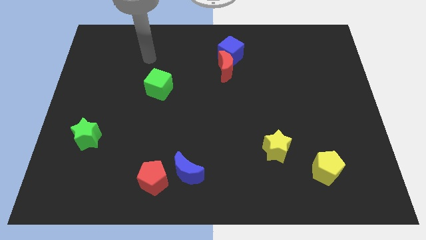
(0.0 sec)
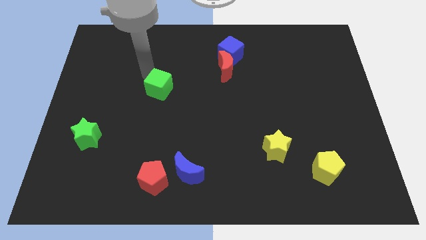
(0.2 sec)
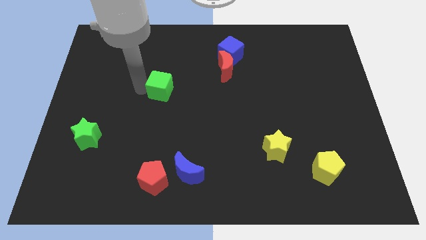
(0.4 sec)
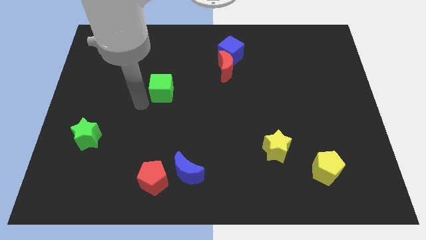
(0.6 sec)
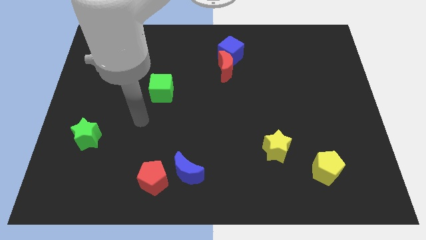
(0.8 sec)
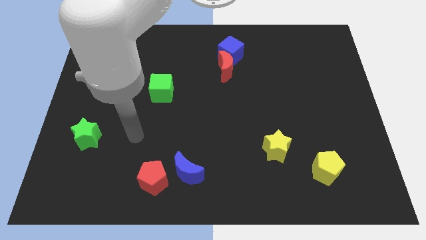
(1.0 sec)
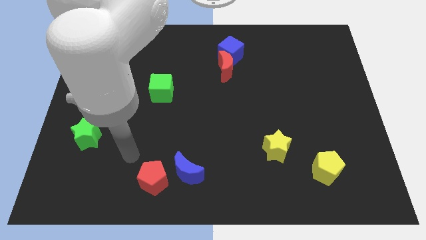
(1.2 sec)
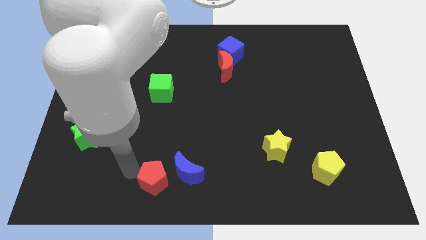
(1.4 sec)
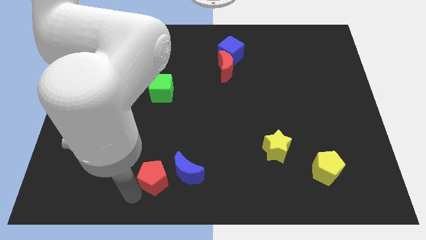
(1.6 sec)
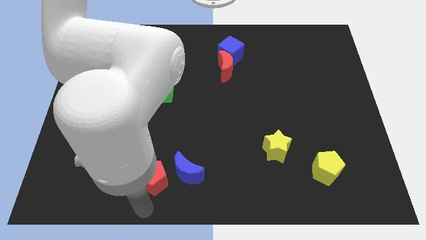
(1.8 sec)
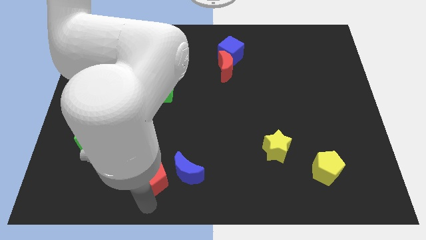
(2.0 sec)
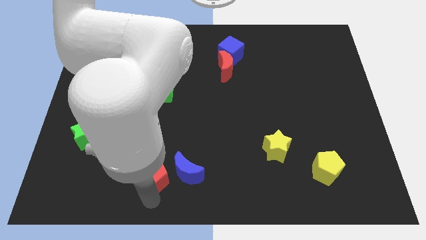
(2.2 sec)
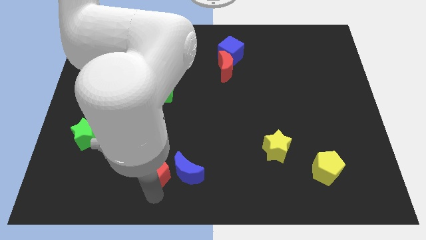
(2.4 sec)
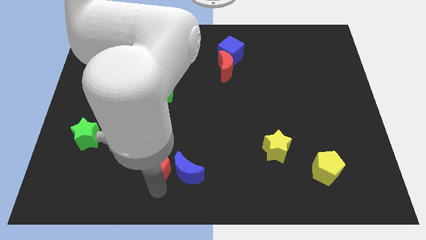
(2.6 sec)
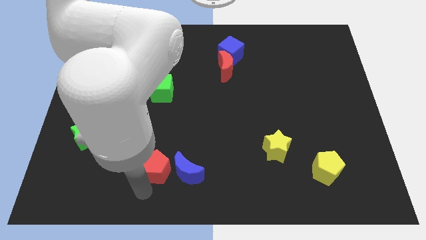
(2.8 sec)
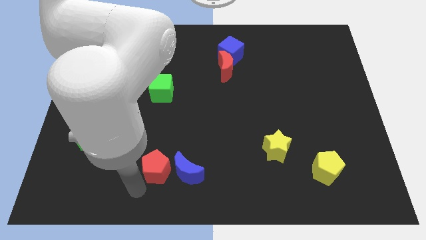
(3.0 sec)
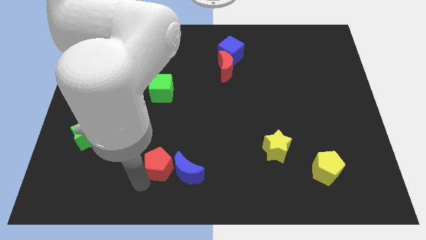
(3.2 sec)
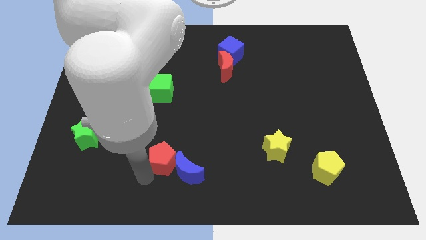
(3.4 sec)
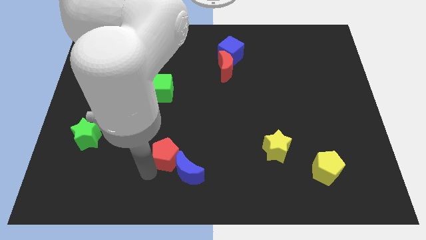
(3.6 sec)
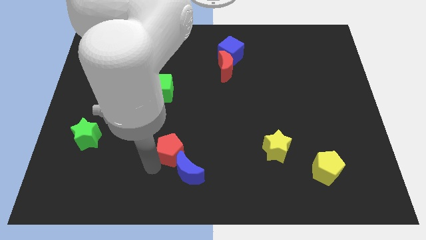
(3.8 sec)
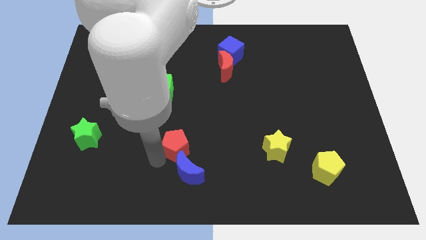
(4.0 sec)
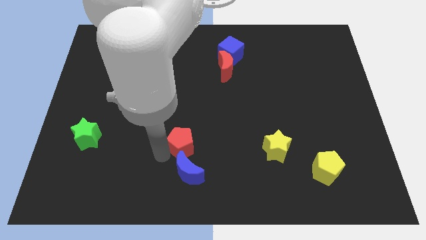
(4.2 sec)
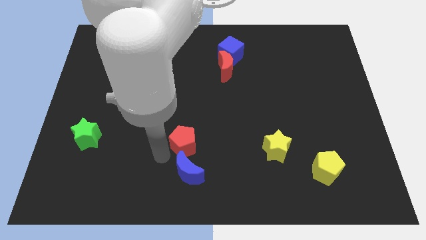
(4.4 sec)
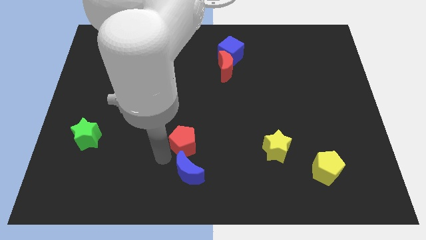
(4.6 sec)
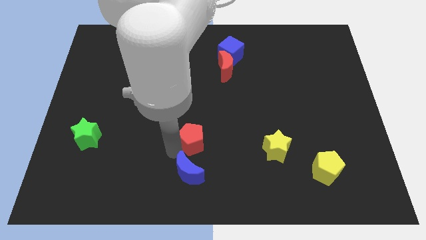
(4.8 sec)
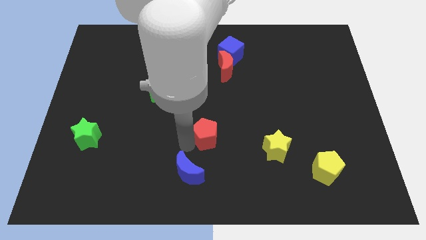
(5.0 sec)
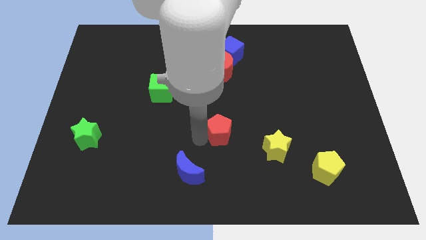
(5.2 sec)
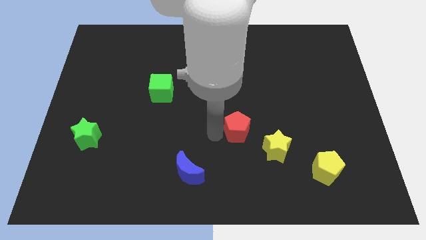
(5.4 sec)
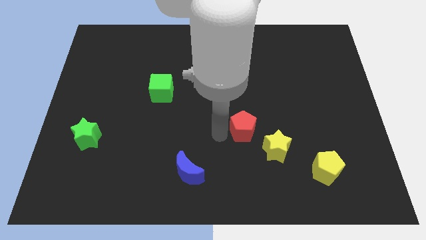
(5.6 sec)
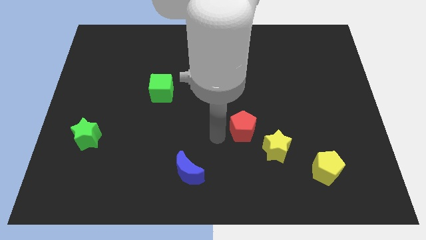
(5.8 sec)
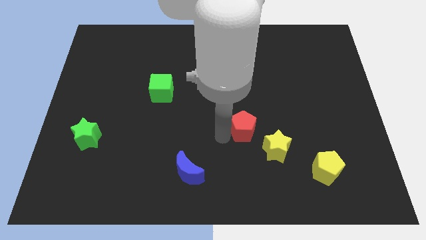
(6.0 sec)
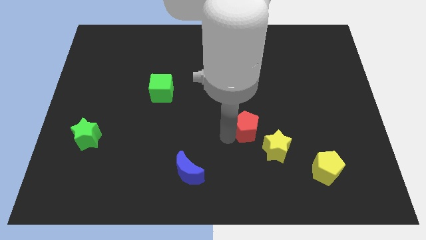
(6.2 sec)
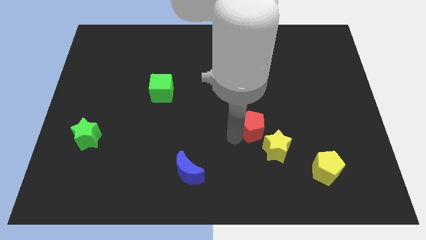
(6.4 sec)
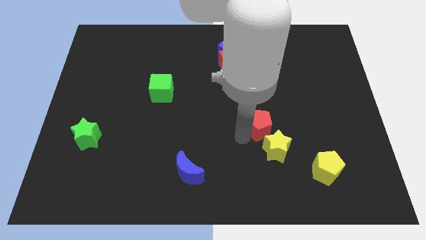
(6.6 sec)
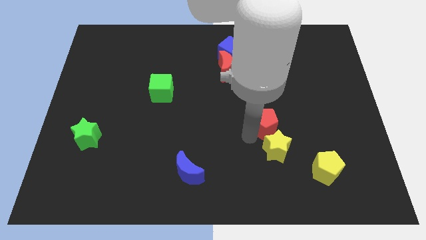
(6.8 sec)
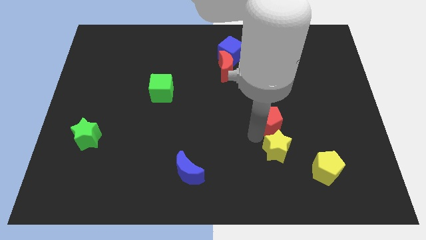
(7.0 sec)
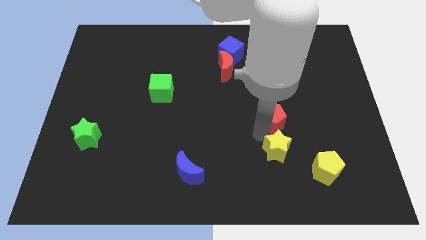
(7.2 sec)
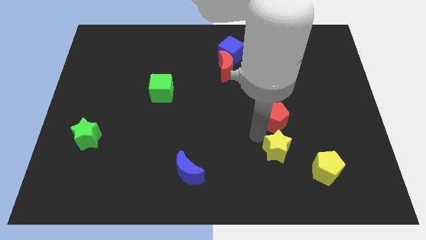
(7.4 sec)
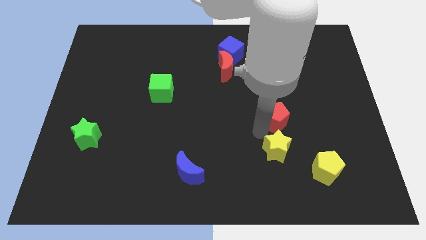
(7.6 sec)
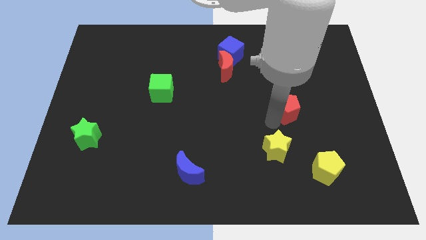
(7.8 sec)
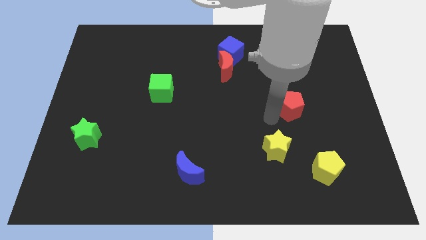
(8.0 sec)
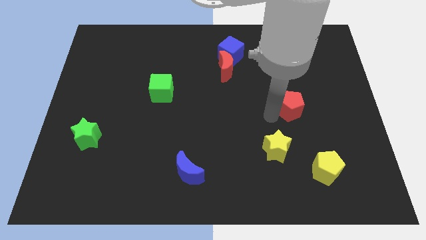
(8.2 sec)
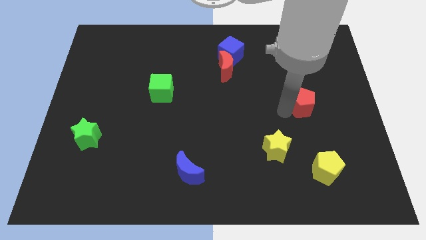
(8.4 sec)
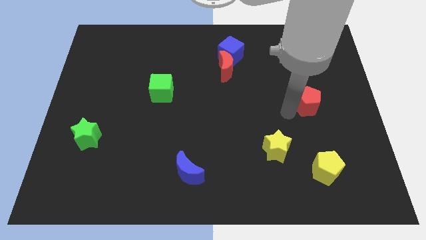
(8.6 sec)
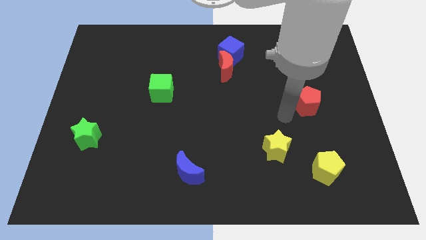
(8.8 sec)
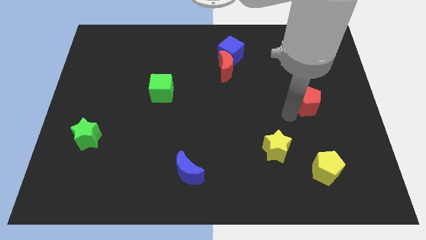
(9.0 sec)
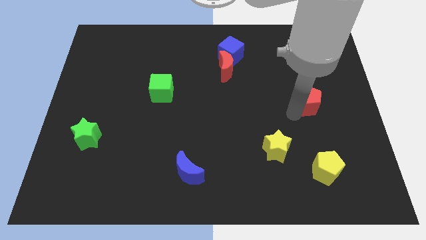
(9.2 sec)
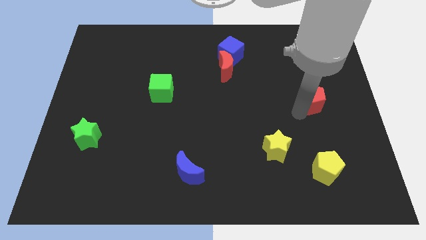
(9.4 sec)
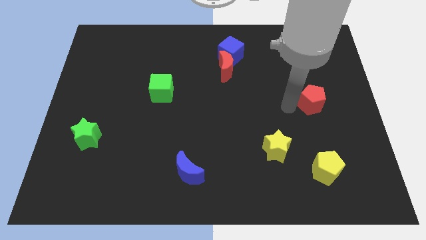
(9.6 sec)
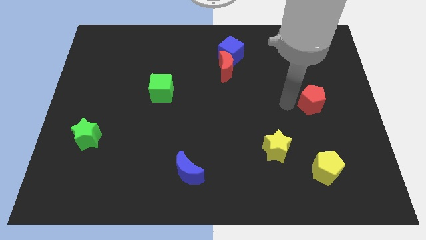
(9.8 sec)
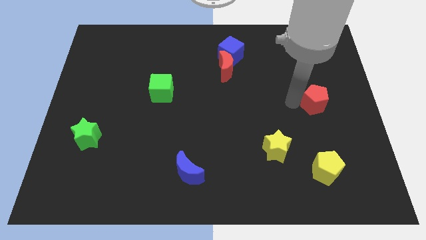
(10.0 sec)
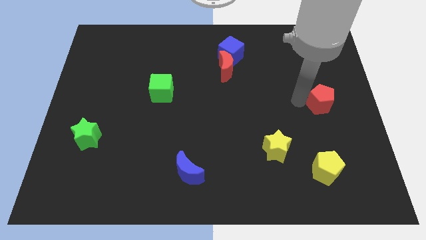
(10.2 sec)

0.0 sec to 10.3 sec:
move the red pentagon to the right side of the board

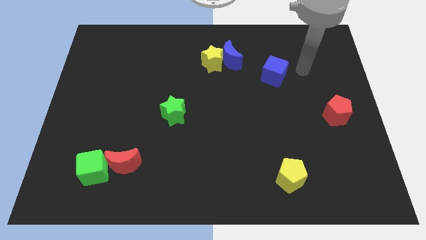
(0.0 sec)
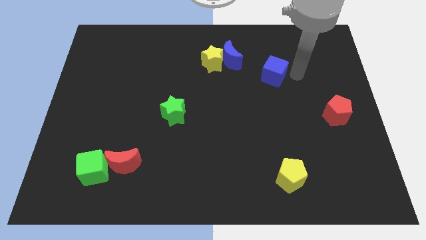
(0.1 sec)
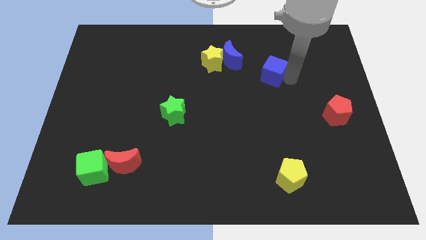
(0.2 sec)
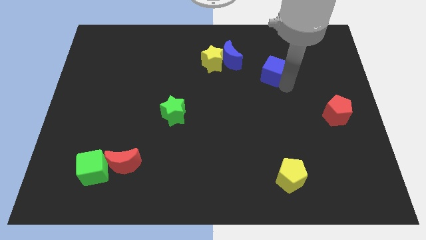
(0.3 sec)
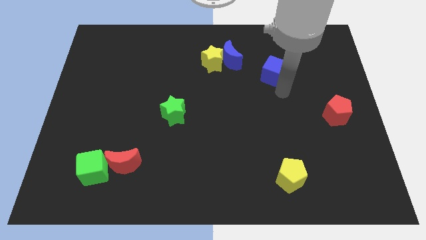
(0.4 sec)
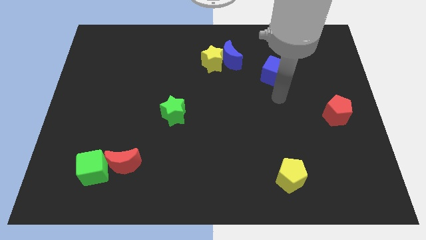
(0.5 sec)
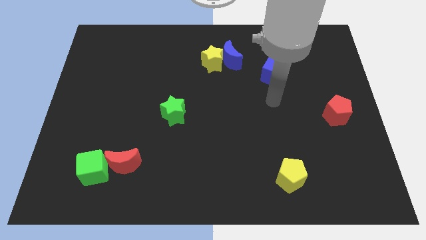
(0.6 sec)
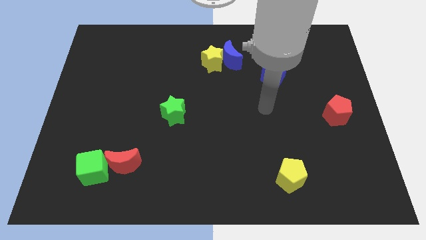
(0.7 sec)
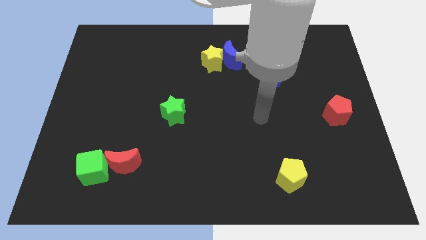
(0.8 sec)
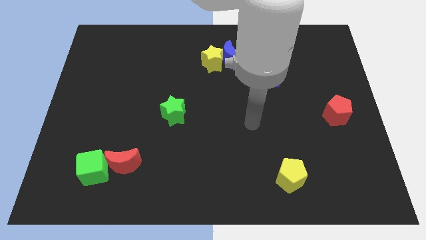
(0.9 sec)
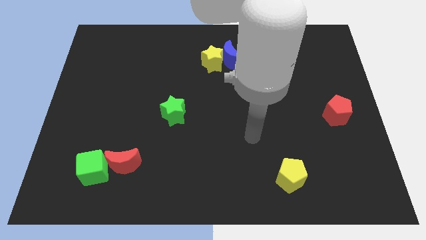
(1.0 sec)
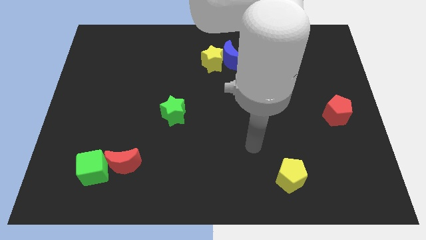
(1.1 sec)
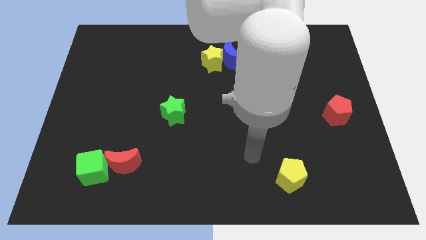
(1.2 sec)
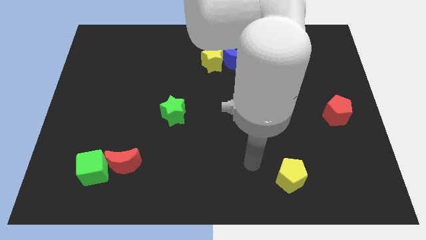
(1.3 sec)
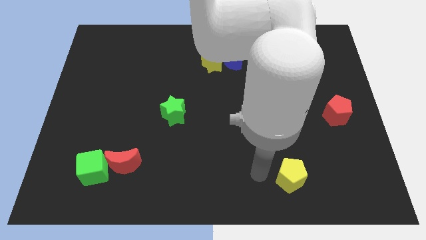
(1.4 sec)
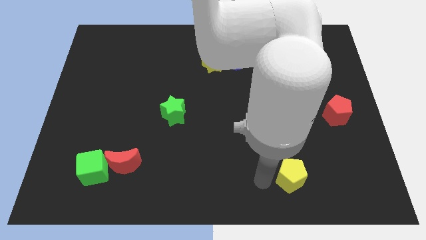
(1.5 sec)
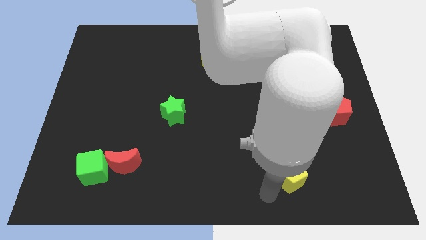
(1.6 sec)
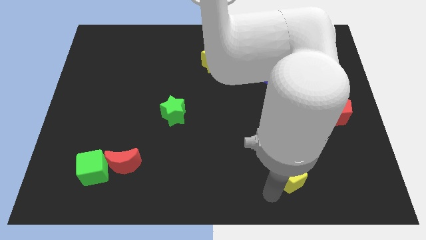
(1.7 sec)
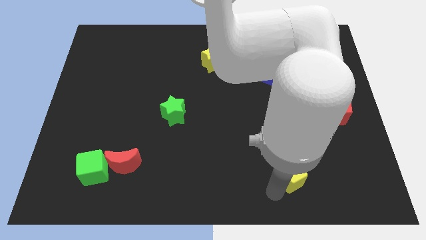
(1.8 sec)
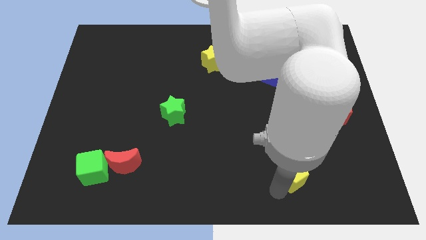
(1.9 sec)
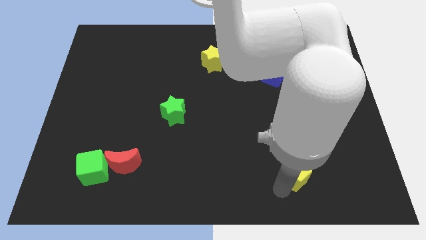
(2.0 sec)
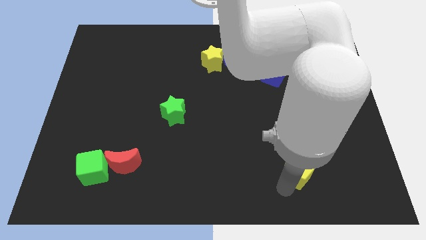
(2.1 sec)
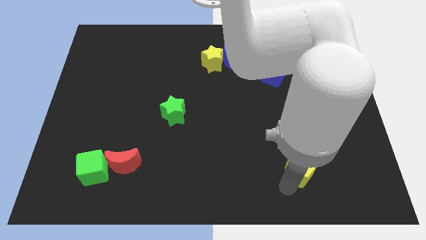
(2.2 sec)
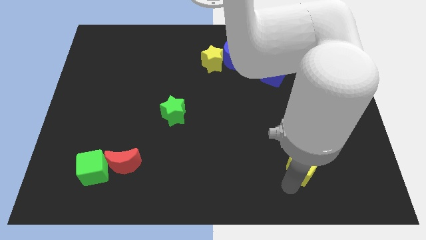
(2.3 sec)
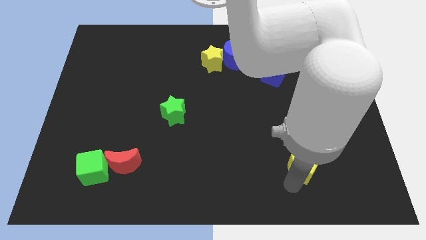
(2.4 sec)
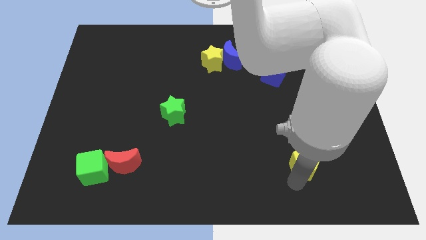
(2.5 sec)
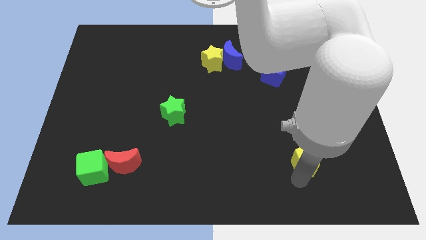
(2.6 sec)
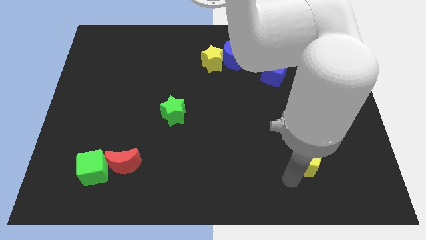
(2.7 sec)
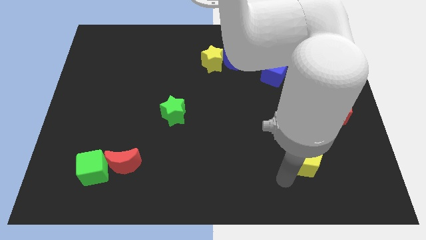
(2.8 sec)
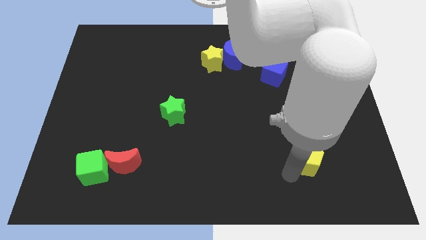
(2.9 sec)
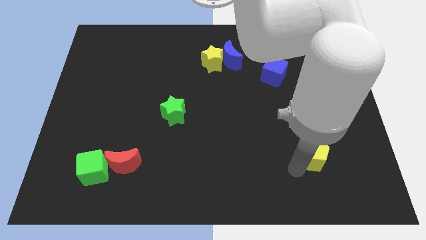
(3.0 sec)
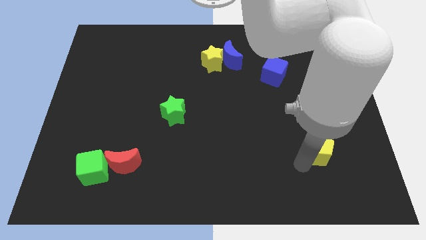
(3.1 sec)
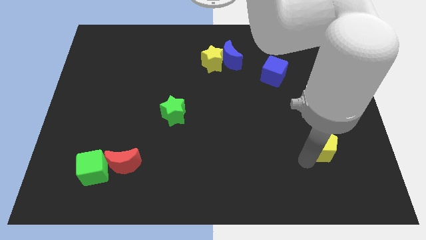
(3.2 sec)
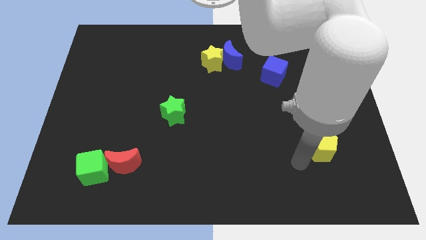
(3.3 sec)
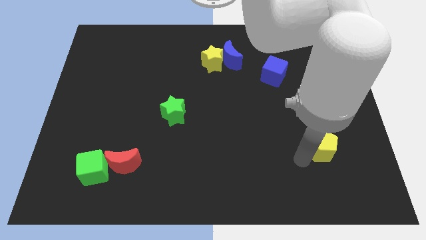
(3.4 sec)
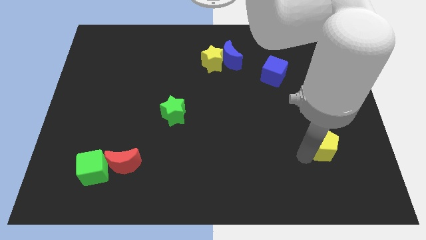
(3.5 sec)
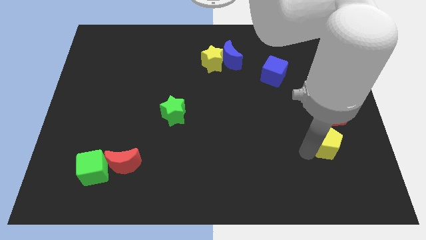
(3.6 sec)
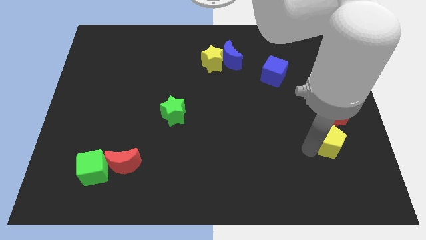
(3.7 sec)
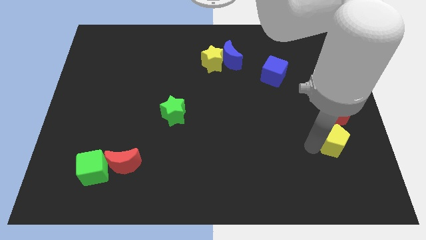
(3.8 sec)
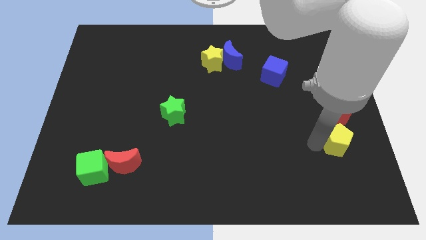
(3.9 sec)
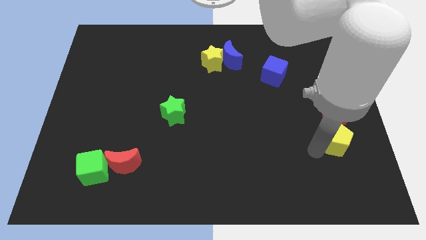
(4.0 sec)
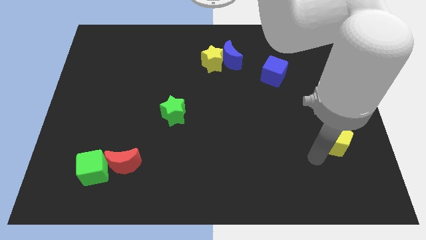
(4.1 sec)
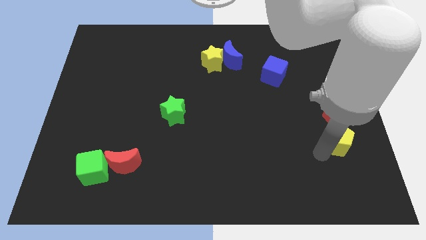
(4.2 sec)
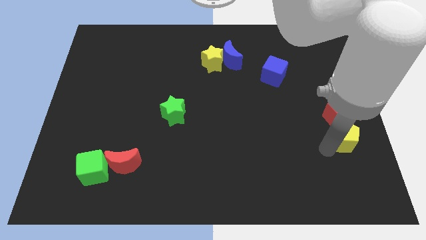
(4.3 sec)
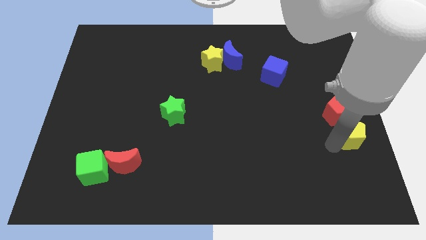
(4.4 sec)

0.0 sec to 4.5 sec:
slide the yellow pentagon to the center right
